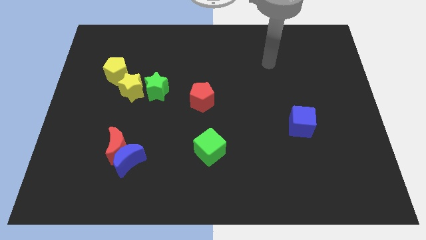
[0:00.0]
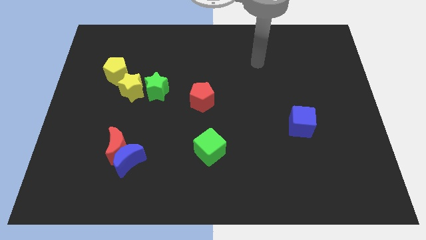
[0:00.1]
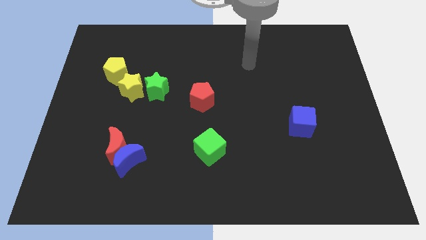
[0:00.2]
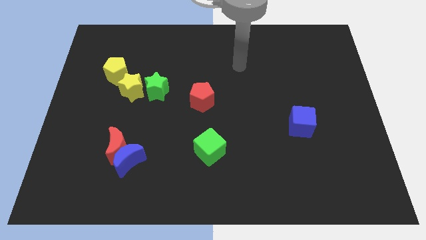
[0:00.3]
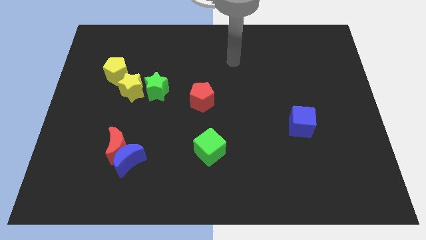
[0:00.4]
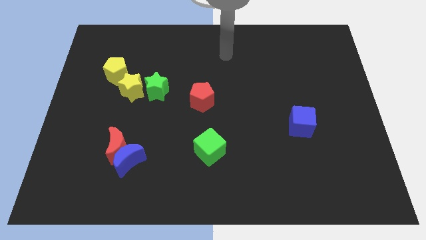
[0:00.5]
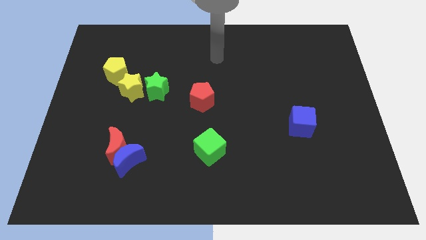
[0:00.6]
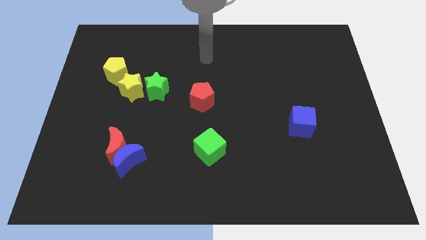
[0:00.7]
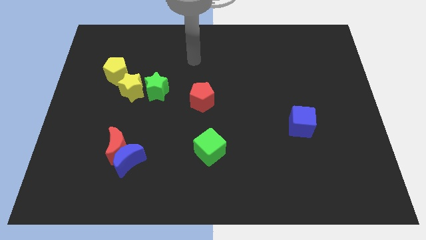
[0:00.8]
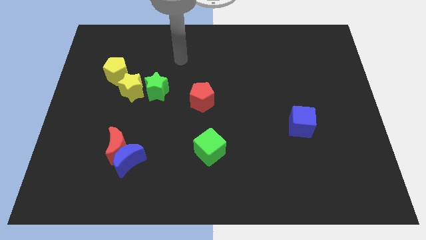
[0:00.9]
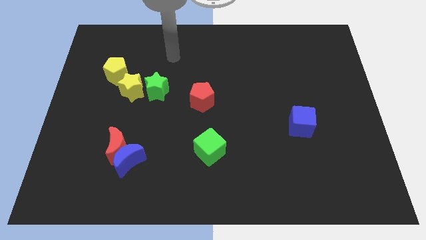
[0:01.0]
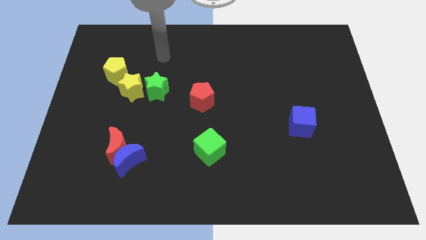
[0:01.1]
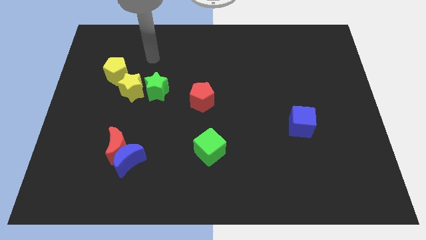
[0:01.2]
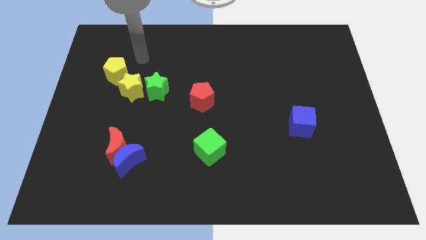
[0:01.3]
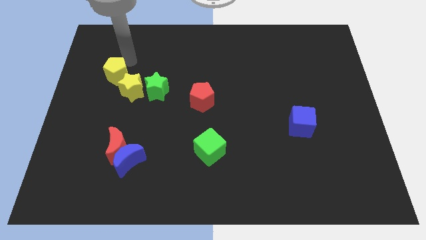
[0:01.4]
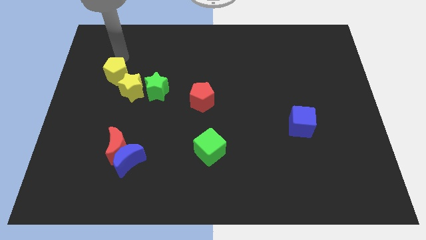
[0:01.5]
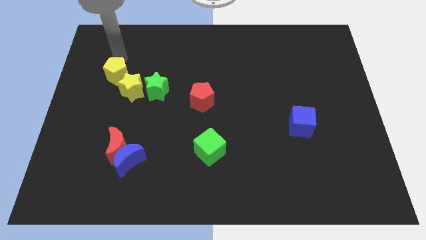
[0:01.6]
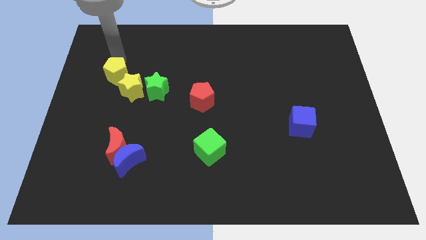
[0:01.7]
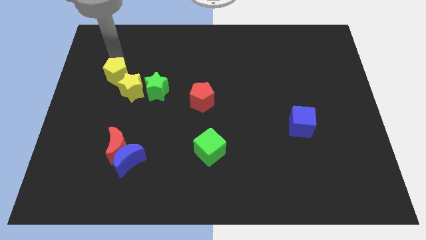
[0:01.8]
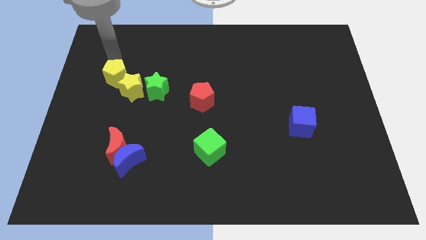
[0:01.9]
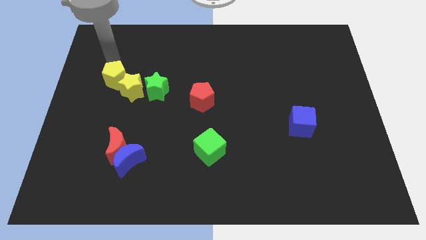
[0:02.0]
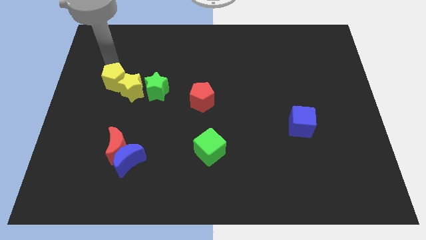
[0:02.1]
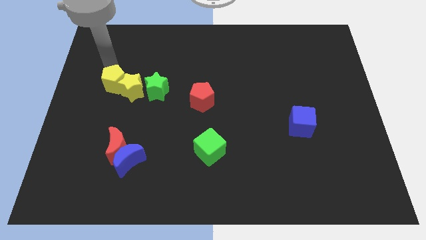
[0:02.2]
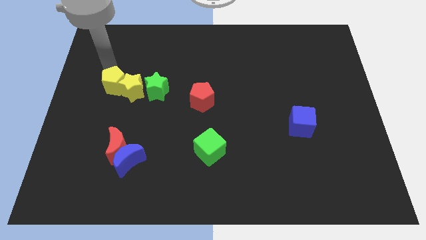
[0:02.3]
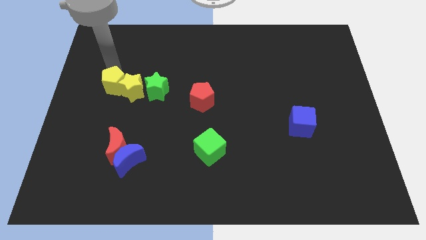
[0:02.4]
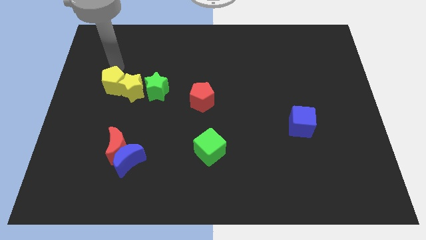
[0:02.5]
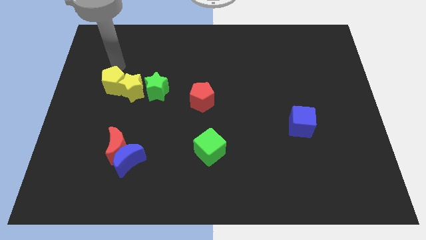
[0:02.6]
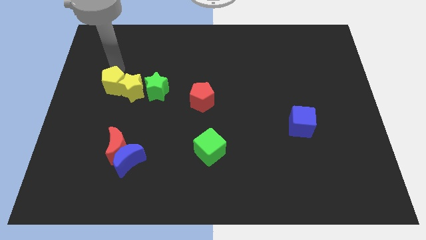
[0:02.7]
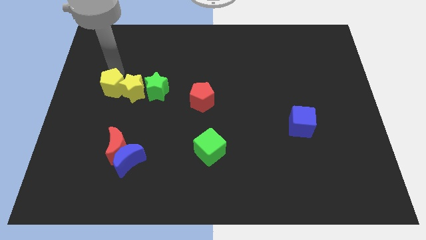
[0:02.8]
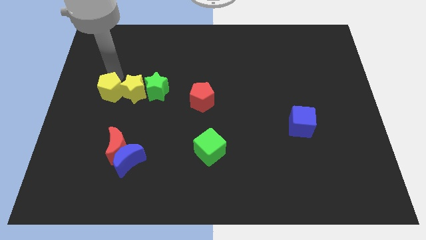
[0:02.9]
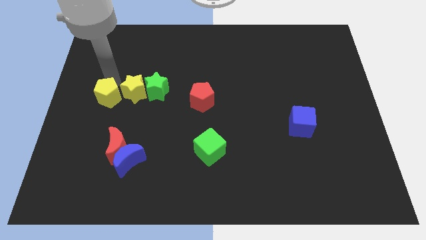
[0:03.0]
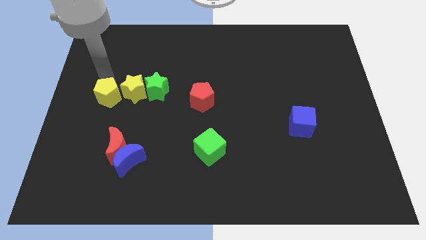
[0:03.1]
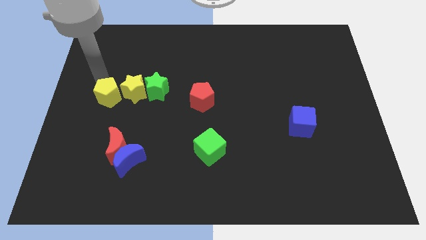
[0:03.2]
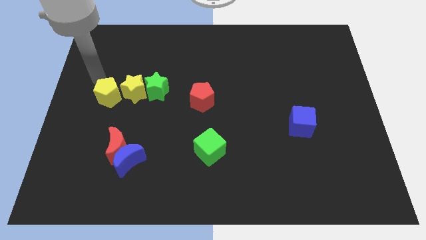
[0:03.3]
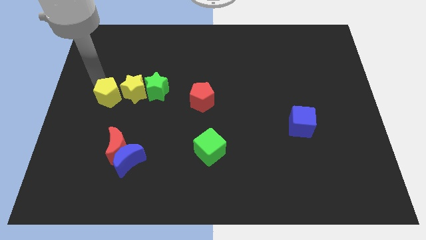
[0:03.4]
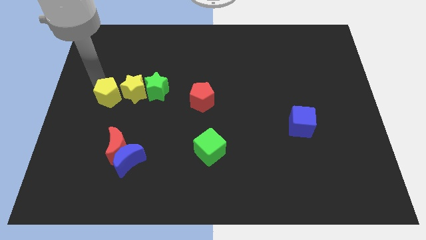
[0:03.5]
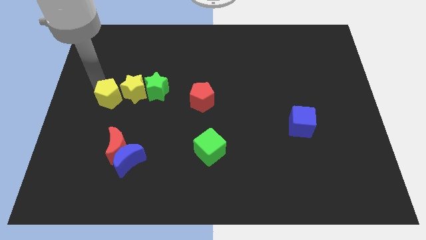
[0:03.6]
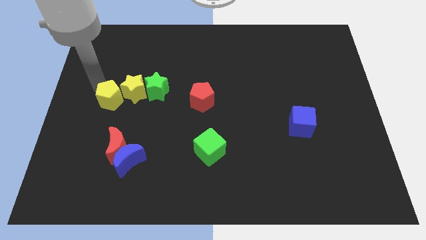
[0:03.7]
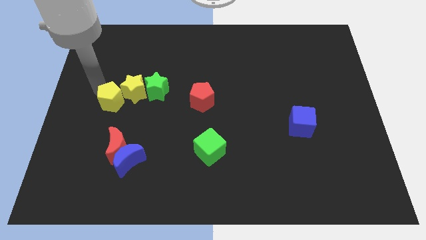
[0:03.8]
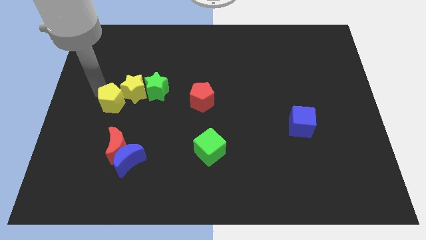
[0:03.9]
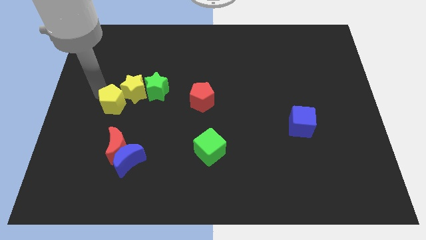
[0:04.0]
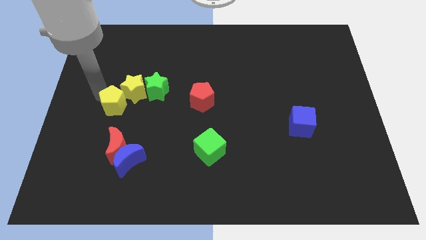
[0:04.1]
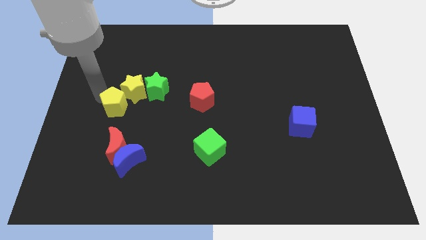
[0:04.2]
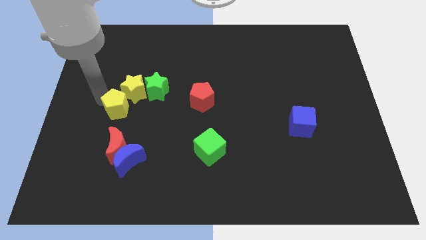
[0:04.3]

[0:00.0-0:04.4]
move the yellow pentagon down and then to the right somewhat

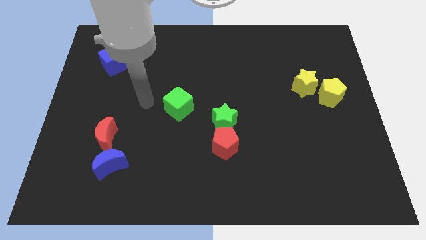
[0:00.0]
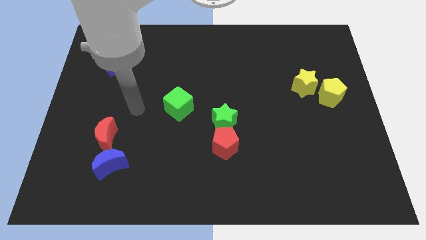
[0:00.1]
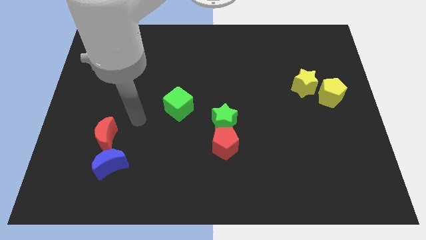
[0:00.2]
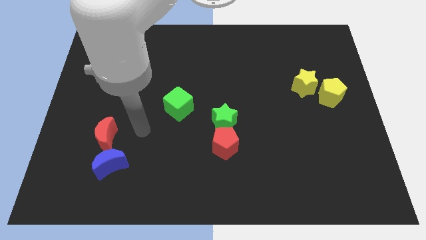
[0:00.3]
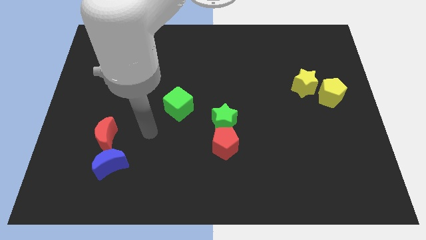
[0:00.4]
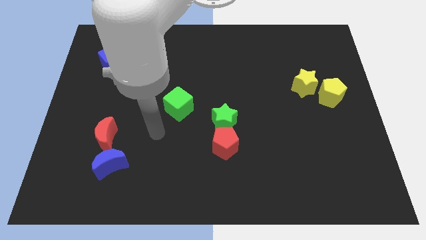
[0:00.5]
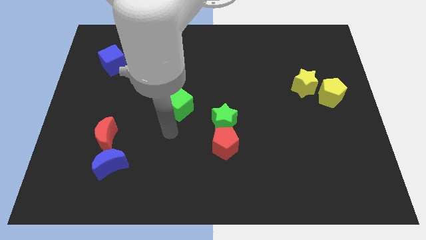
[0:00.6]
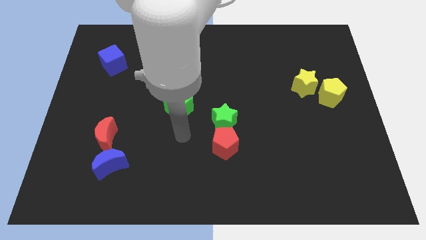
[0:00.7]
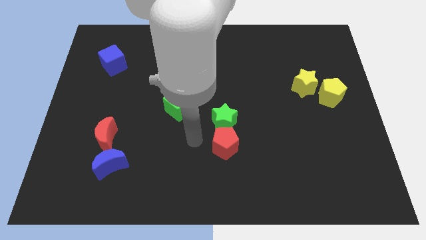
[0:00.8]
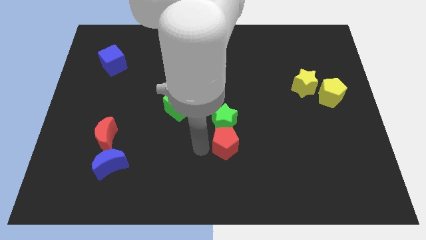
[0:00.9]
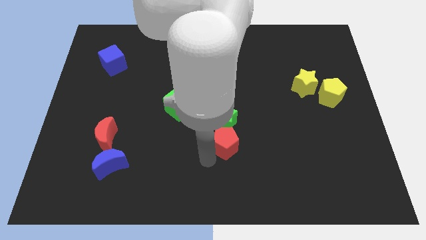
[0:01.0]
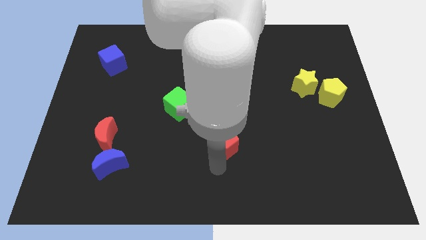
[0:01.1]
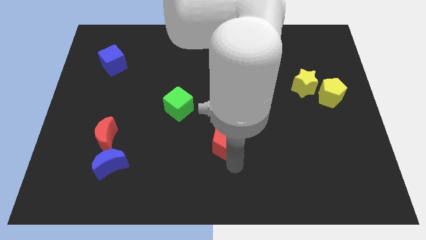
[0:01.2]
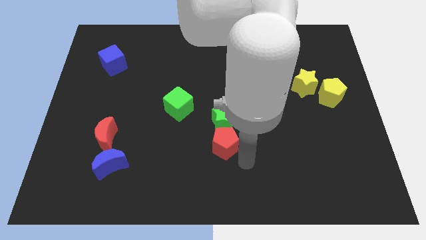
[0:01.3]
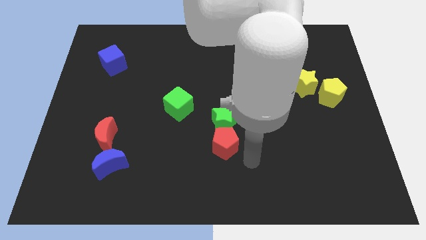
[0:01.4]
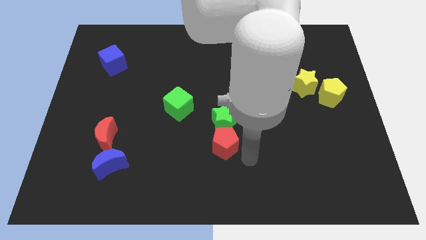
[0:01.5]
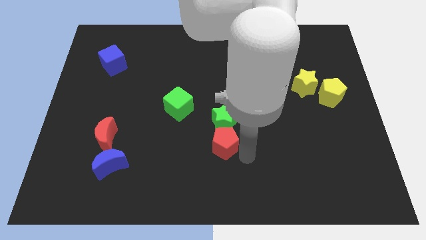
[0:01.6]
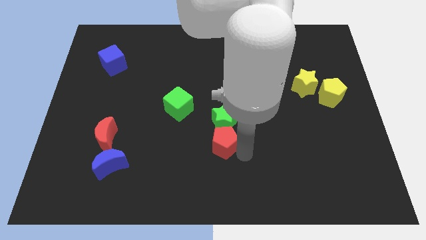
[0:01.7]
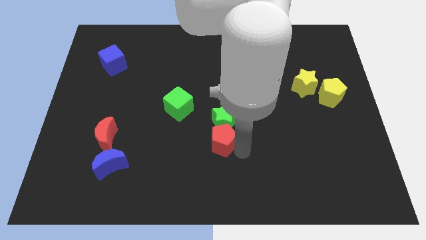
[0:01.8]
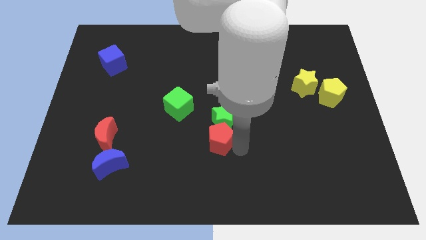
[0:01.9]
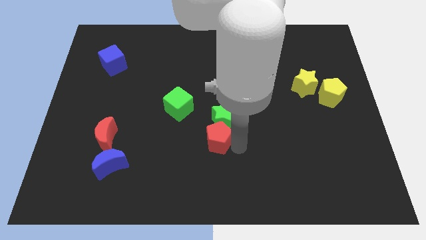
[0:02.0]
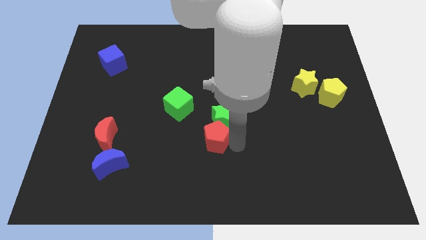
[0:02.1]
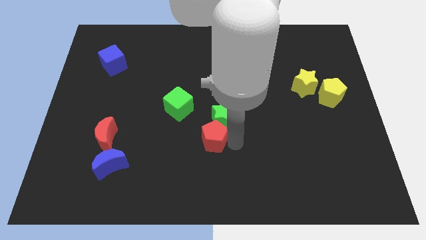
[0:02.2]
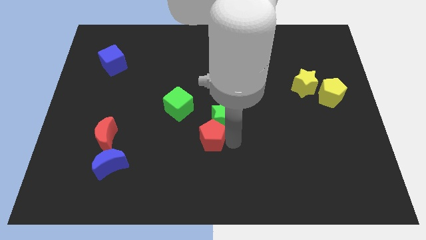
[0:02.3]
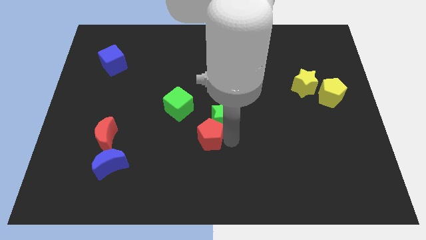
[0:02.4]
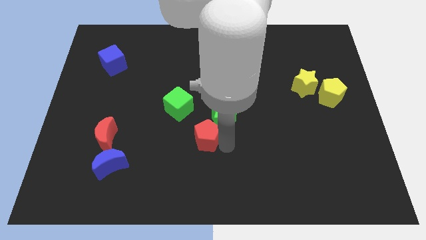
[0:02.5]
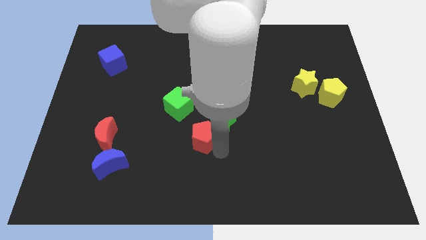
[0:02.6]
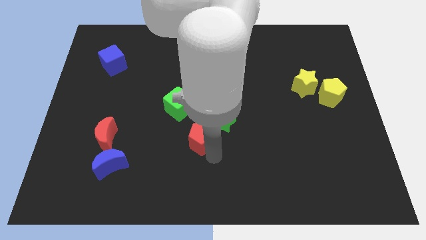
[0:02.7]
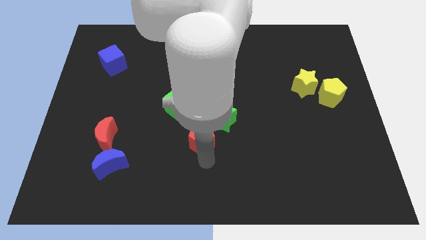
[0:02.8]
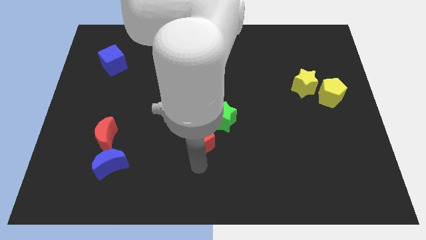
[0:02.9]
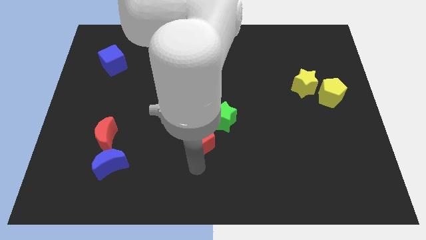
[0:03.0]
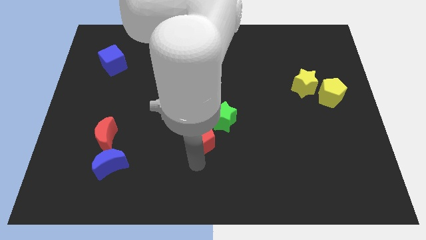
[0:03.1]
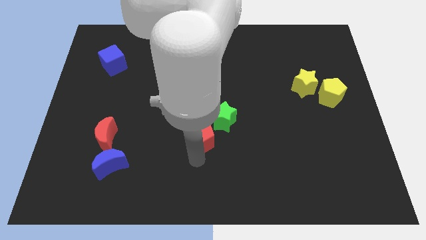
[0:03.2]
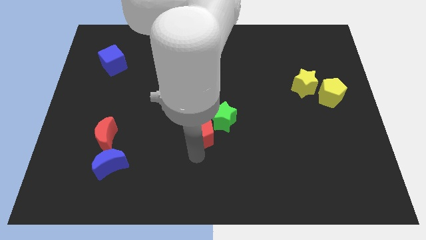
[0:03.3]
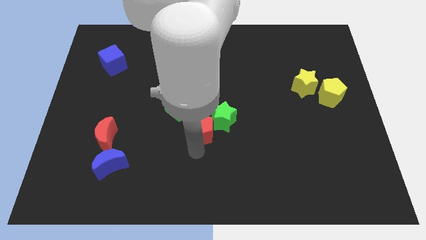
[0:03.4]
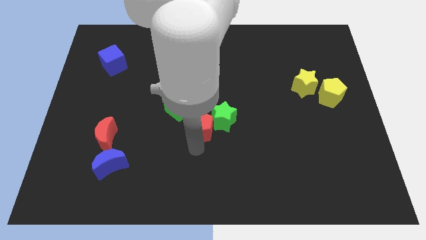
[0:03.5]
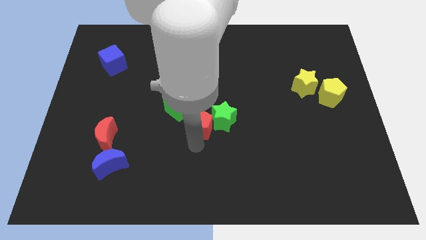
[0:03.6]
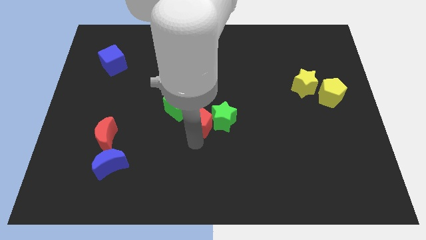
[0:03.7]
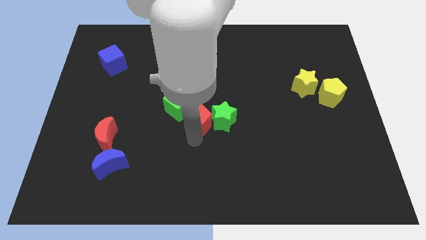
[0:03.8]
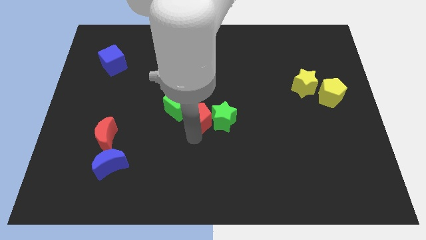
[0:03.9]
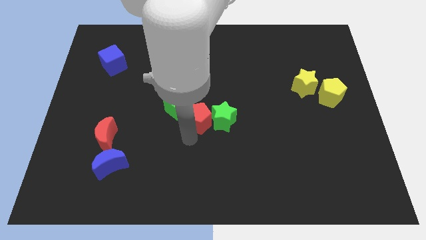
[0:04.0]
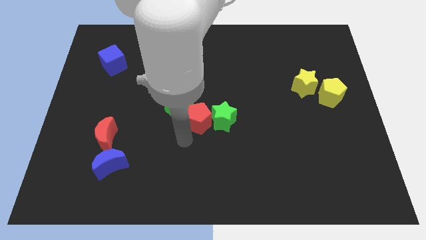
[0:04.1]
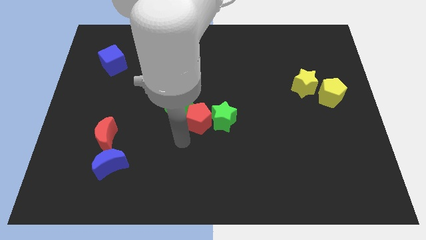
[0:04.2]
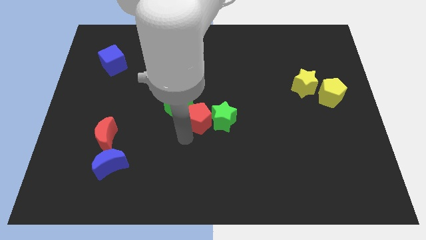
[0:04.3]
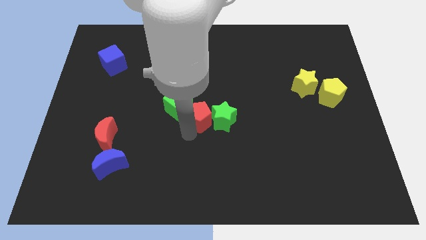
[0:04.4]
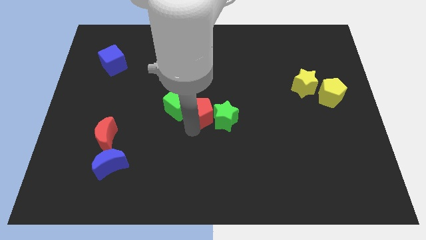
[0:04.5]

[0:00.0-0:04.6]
slide the red pentagon upwards a bit
